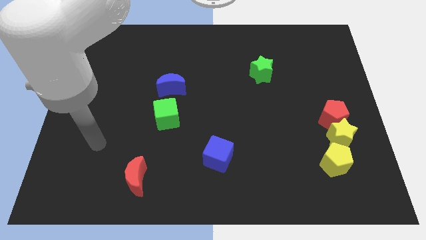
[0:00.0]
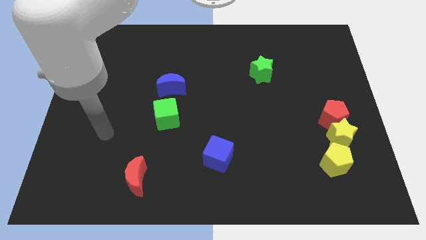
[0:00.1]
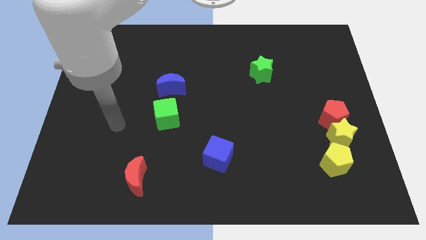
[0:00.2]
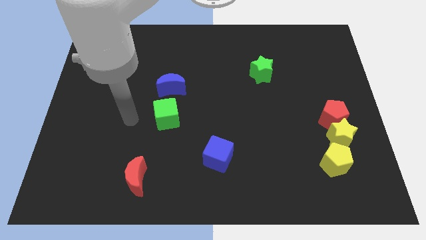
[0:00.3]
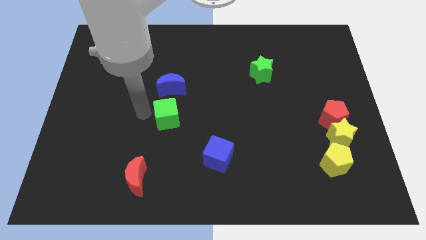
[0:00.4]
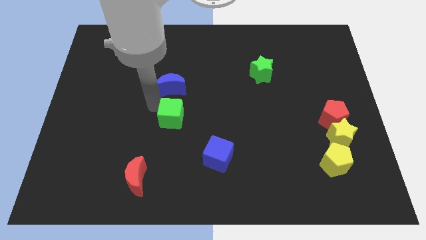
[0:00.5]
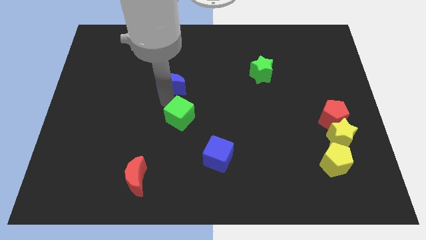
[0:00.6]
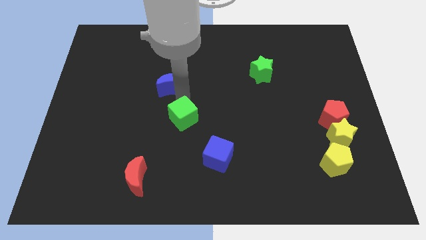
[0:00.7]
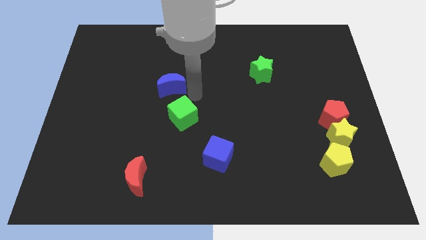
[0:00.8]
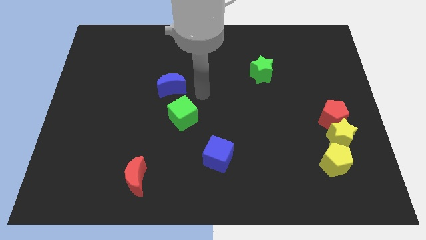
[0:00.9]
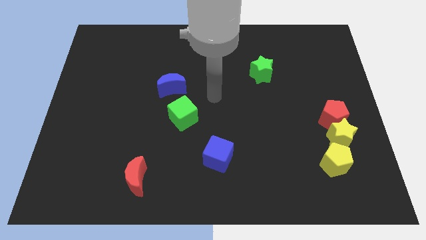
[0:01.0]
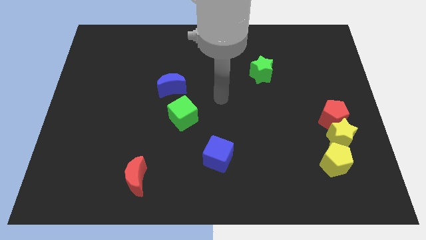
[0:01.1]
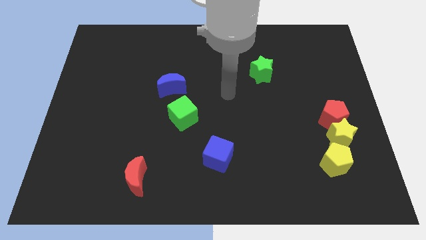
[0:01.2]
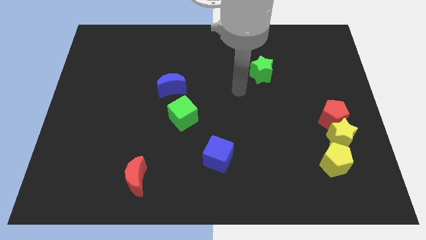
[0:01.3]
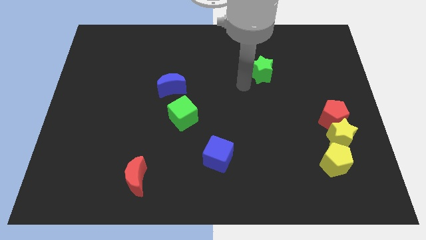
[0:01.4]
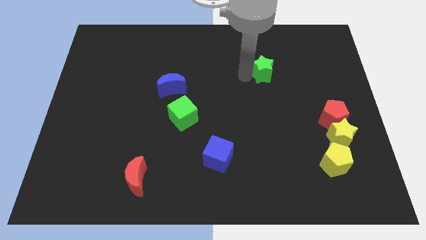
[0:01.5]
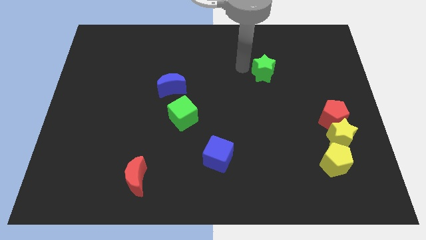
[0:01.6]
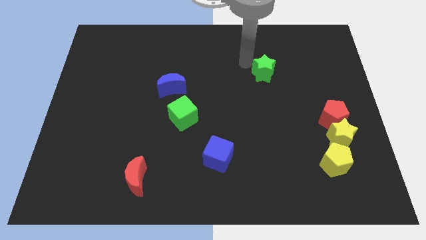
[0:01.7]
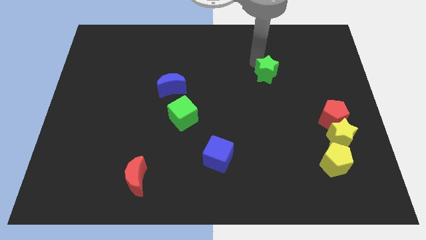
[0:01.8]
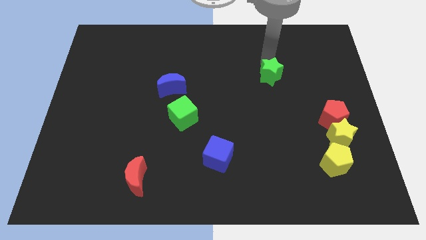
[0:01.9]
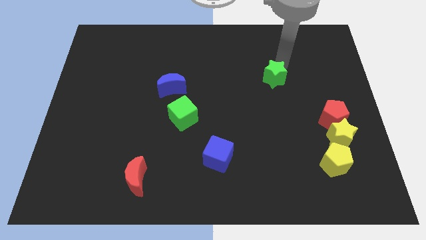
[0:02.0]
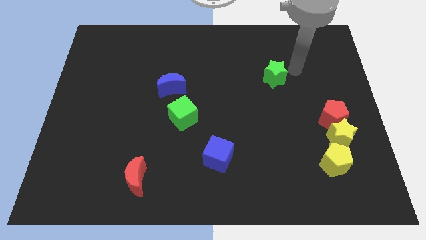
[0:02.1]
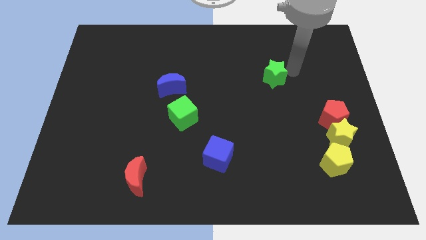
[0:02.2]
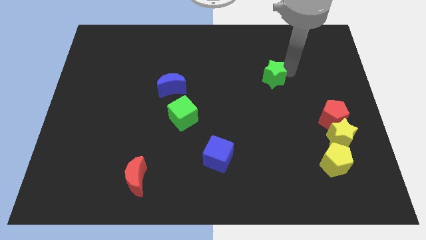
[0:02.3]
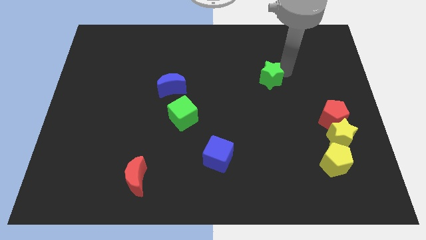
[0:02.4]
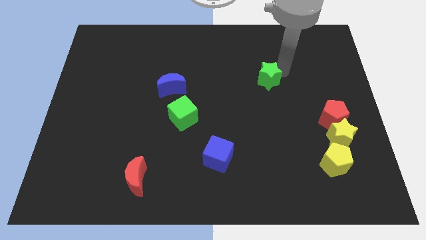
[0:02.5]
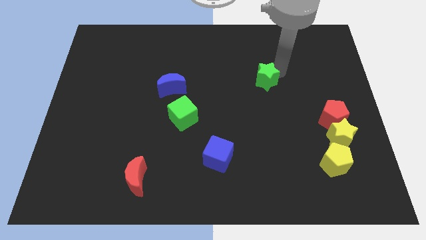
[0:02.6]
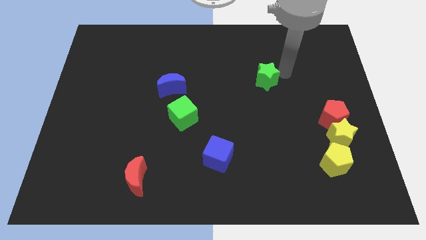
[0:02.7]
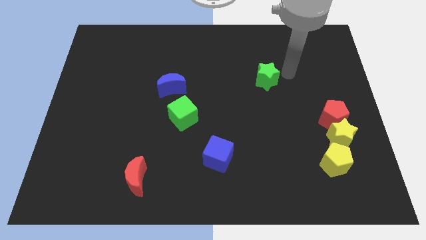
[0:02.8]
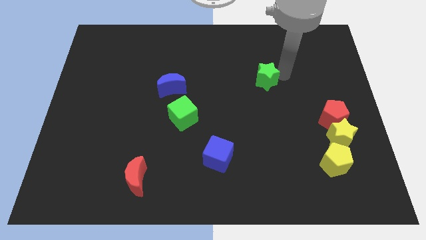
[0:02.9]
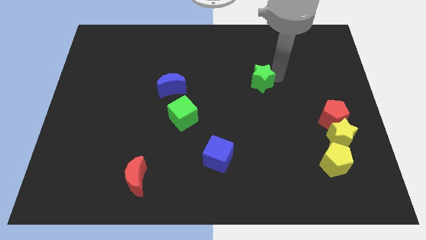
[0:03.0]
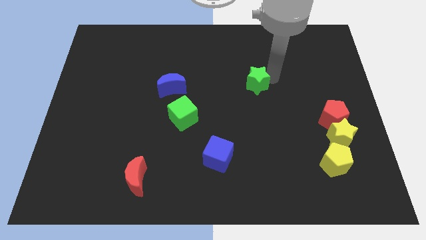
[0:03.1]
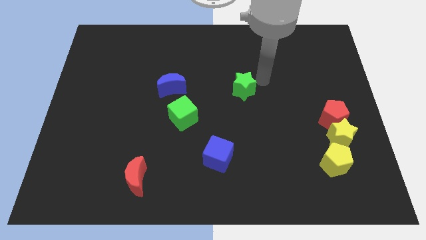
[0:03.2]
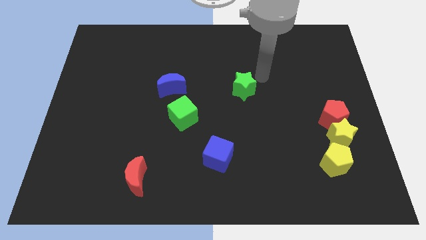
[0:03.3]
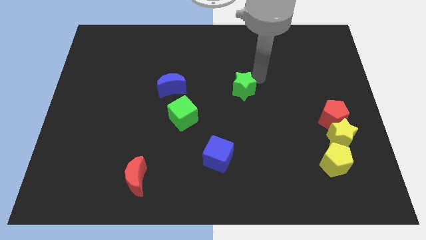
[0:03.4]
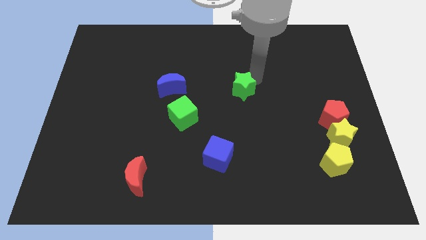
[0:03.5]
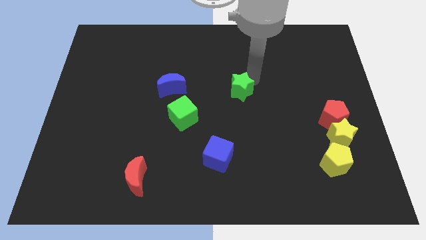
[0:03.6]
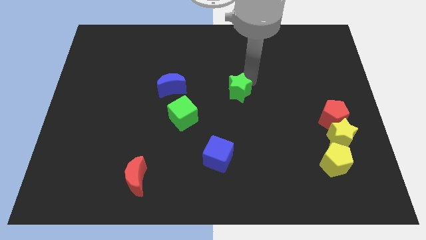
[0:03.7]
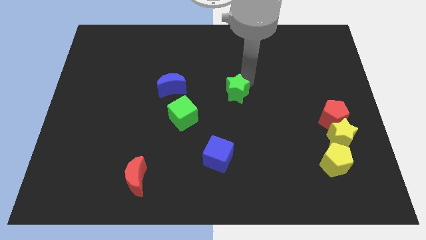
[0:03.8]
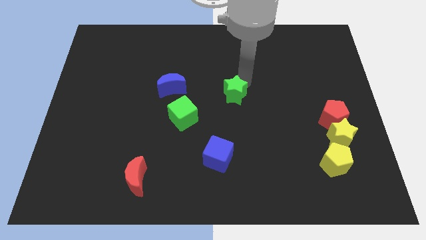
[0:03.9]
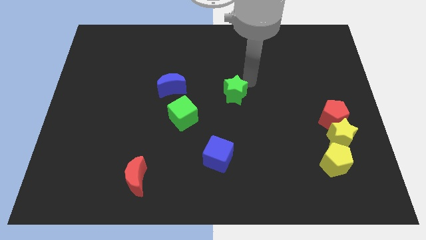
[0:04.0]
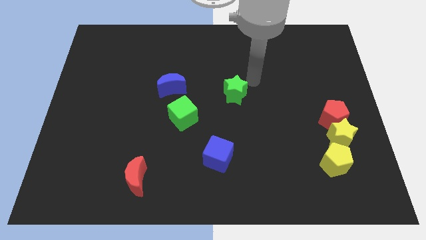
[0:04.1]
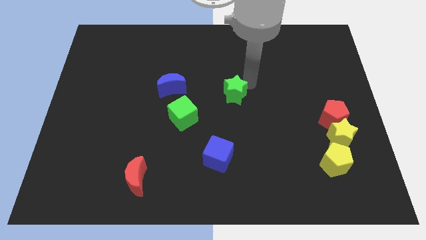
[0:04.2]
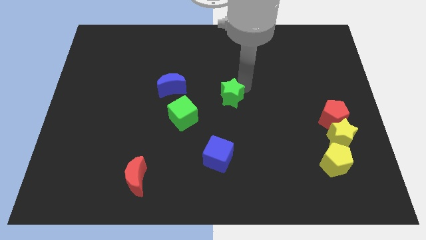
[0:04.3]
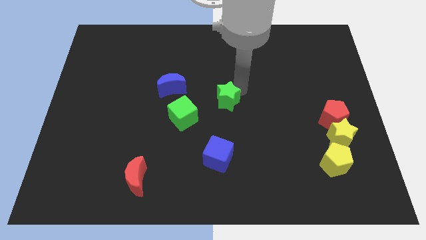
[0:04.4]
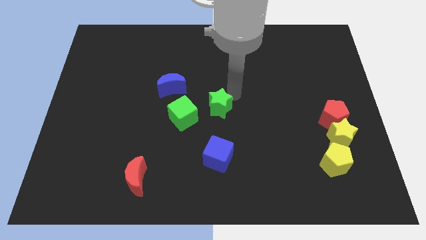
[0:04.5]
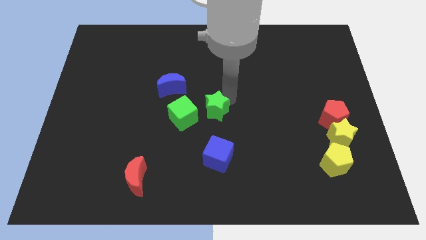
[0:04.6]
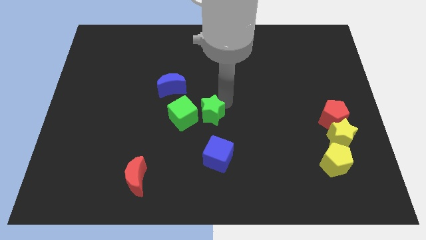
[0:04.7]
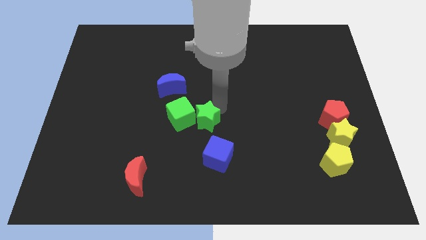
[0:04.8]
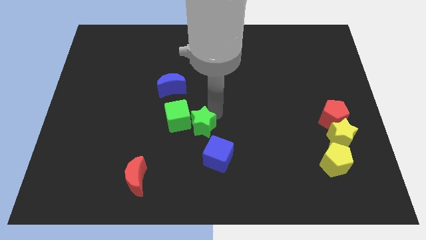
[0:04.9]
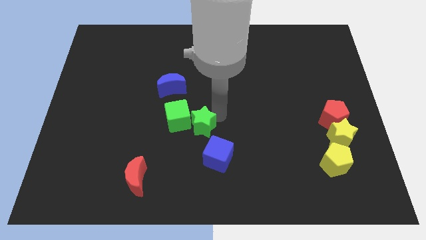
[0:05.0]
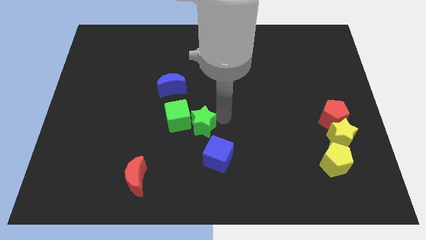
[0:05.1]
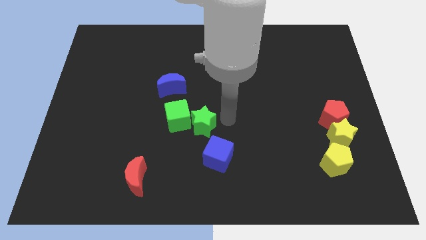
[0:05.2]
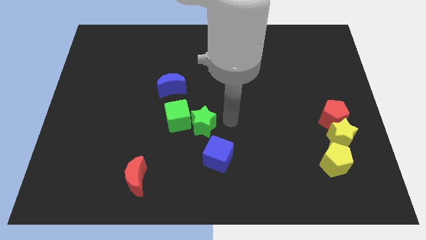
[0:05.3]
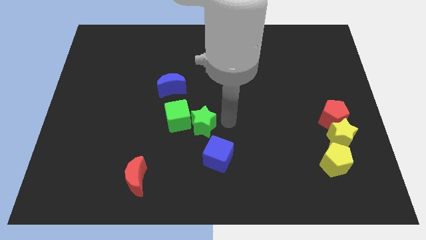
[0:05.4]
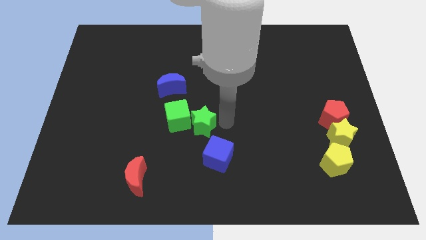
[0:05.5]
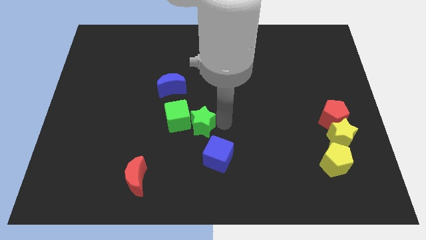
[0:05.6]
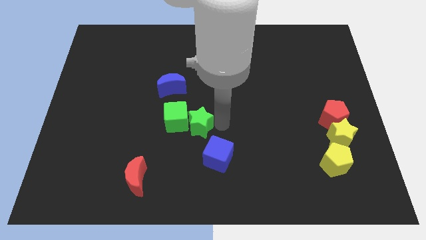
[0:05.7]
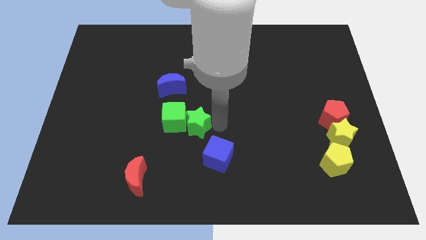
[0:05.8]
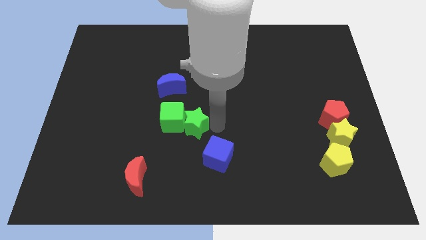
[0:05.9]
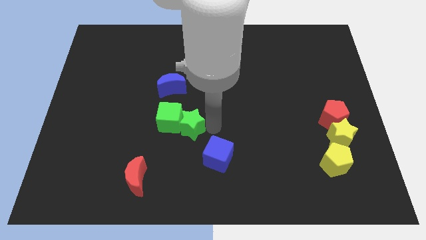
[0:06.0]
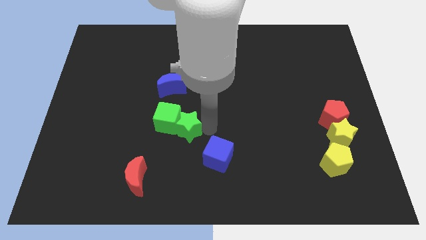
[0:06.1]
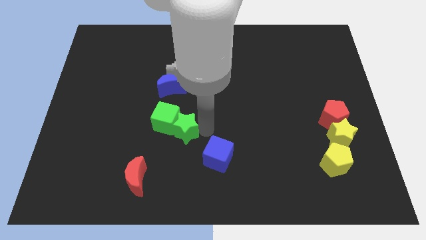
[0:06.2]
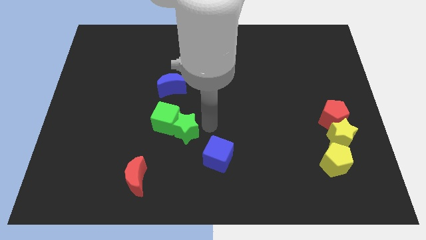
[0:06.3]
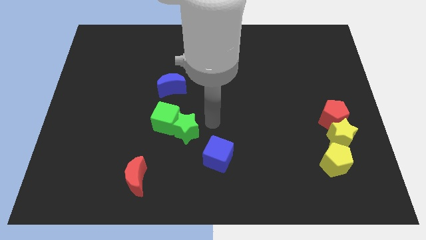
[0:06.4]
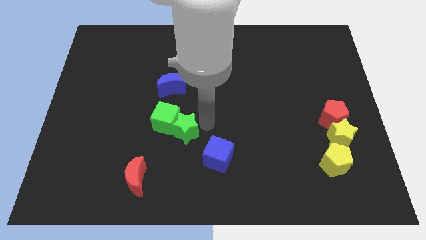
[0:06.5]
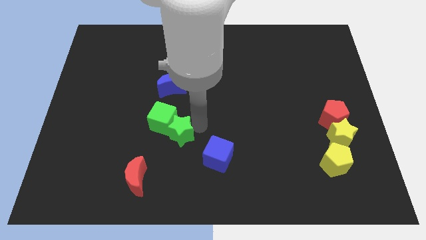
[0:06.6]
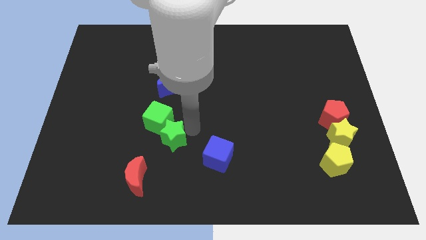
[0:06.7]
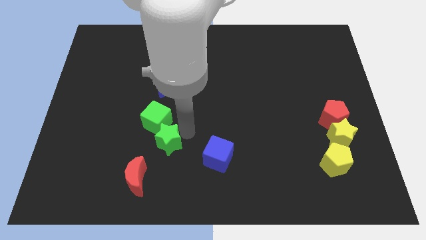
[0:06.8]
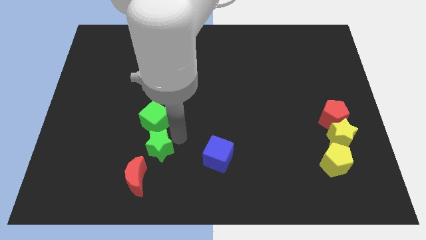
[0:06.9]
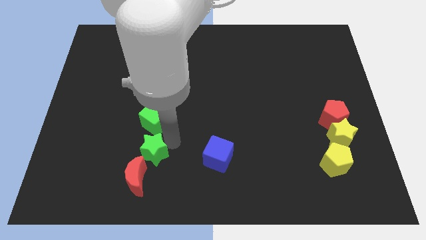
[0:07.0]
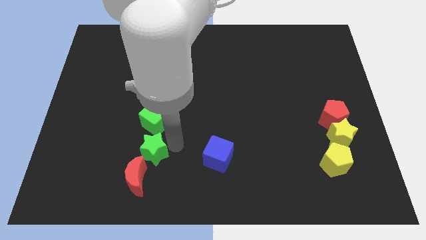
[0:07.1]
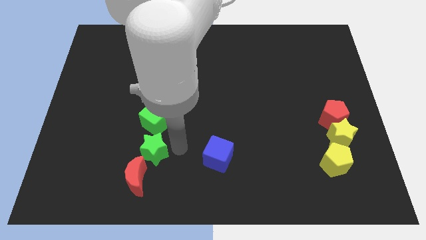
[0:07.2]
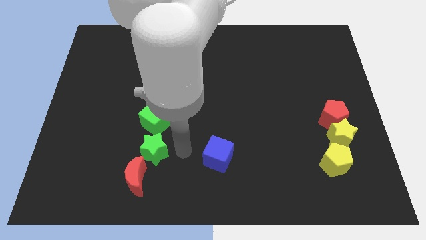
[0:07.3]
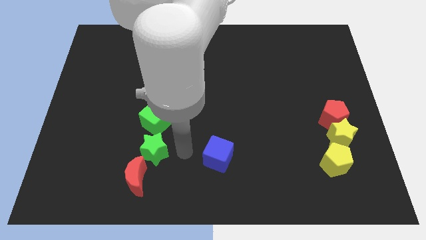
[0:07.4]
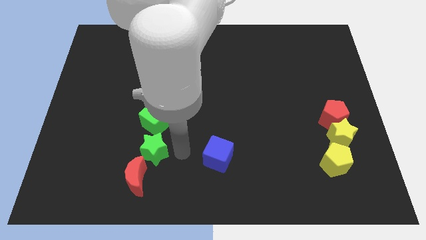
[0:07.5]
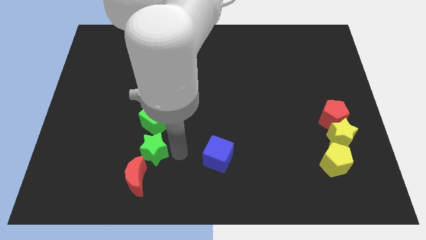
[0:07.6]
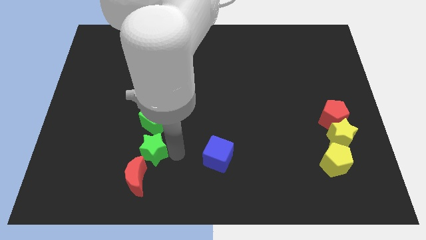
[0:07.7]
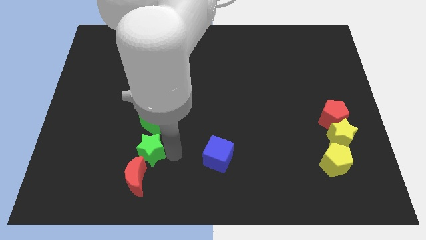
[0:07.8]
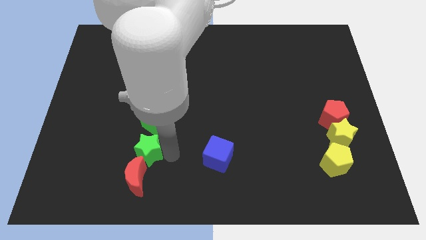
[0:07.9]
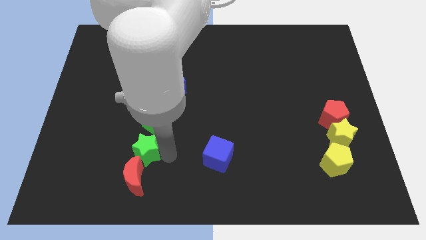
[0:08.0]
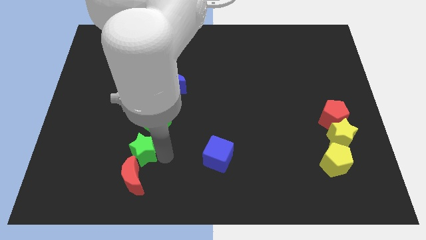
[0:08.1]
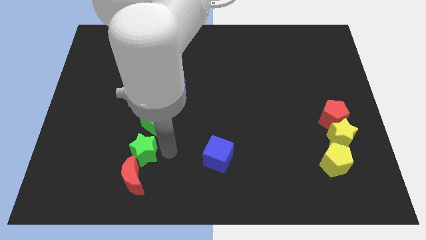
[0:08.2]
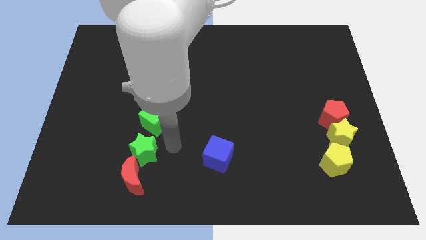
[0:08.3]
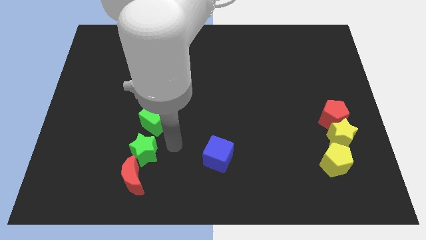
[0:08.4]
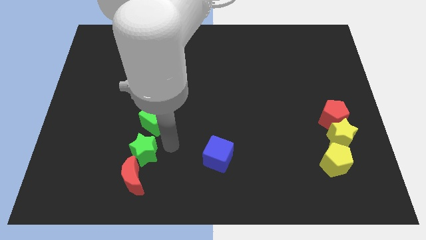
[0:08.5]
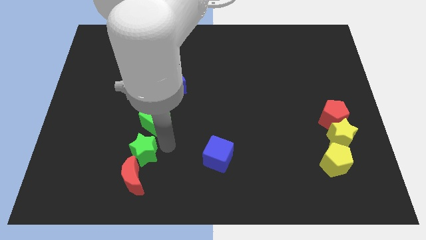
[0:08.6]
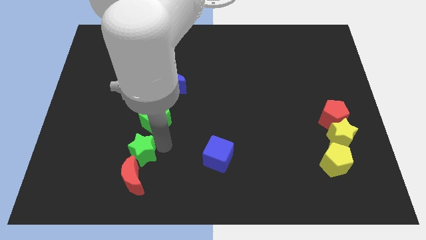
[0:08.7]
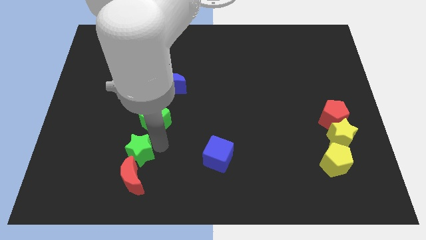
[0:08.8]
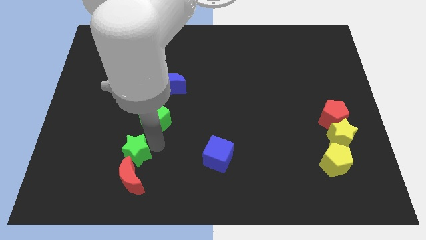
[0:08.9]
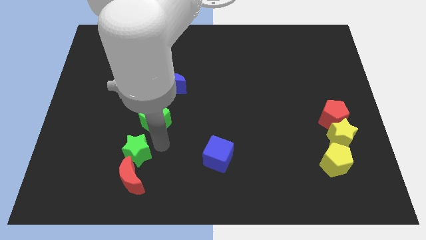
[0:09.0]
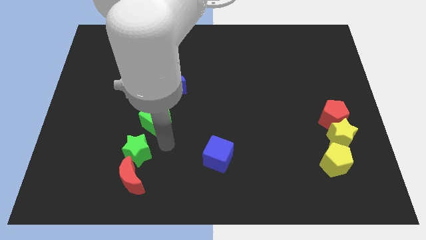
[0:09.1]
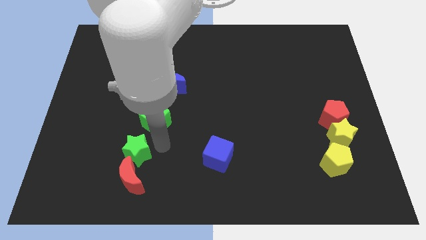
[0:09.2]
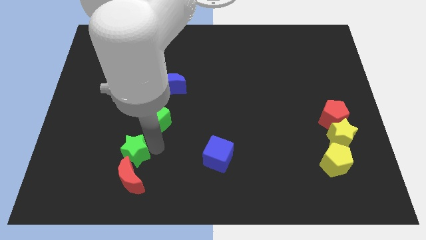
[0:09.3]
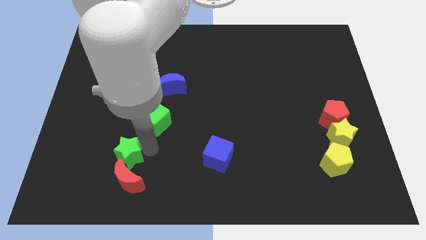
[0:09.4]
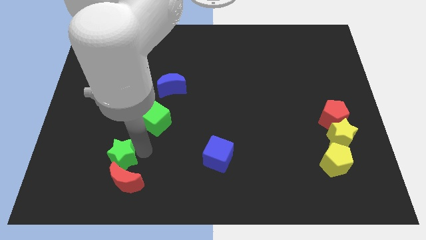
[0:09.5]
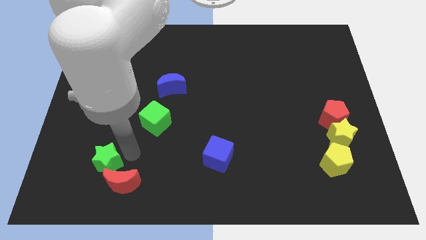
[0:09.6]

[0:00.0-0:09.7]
move the green star left of the red moon
